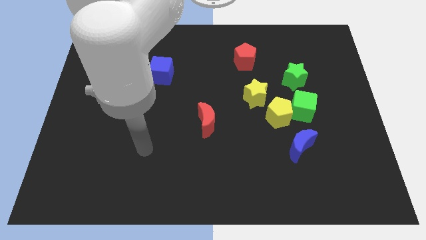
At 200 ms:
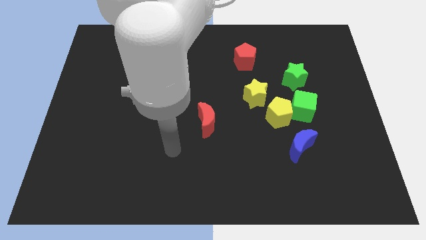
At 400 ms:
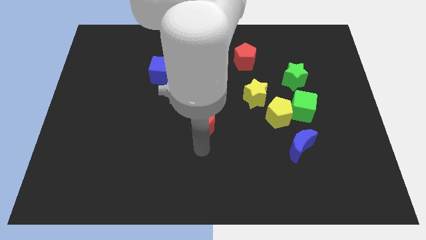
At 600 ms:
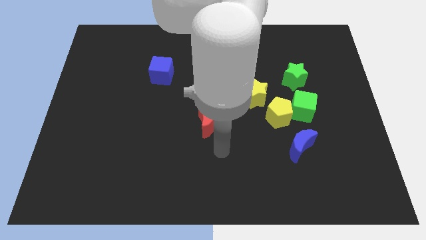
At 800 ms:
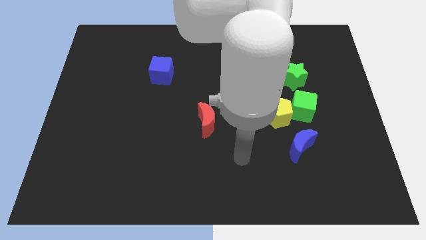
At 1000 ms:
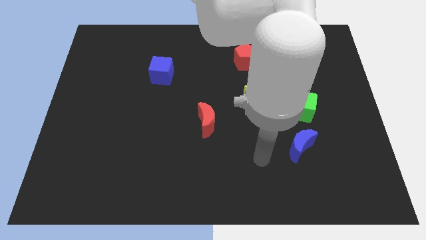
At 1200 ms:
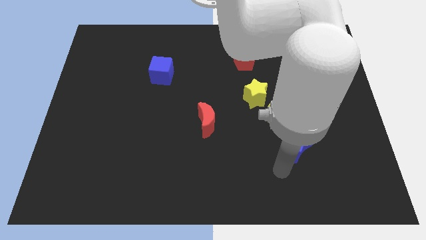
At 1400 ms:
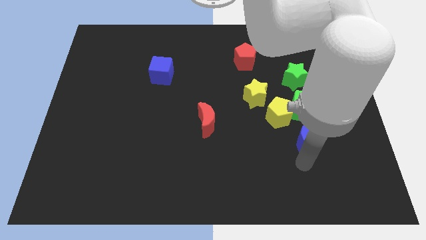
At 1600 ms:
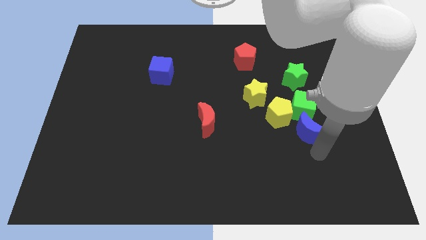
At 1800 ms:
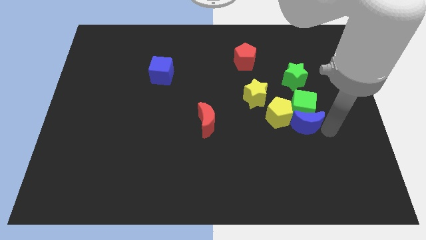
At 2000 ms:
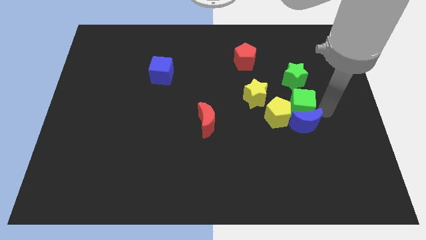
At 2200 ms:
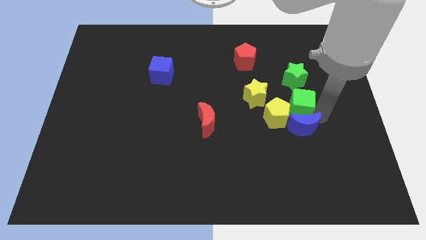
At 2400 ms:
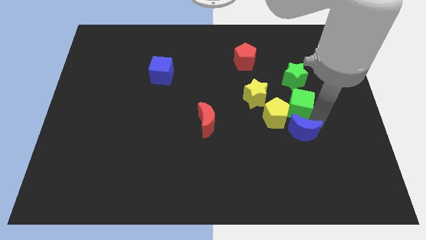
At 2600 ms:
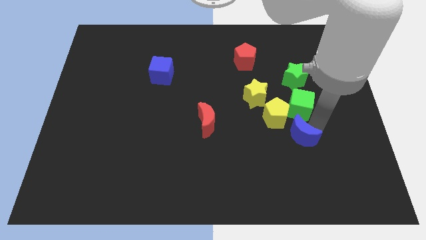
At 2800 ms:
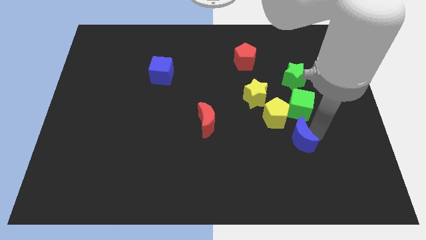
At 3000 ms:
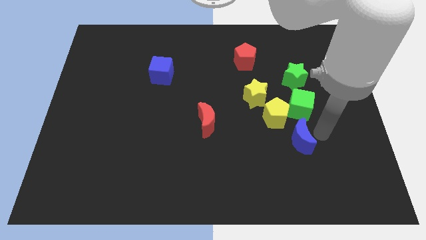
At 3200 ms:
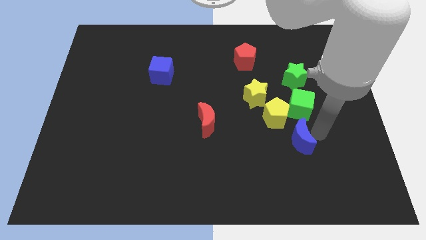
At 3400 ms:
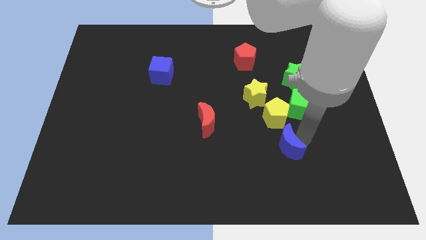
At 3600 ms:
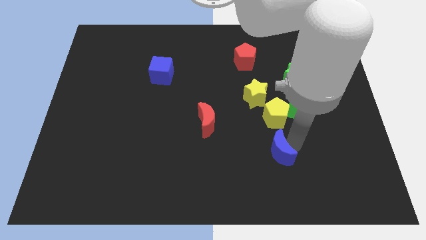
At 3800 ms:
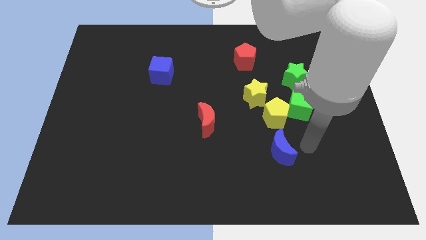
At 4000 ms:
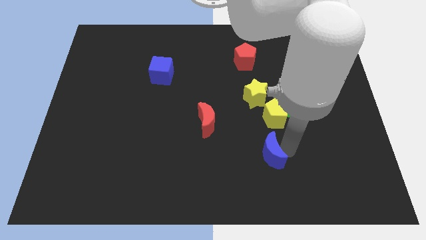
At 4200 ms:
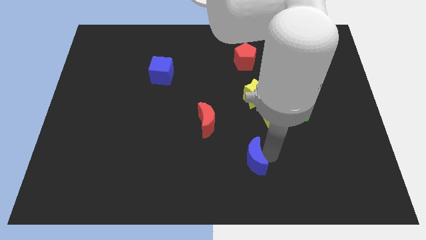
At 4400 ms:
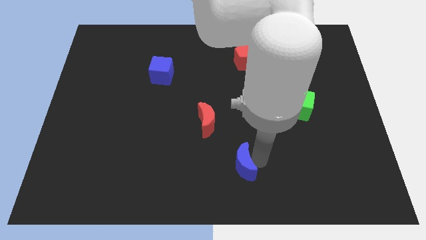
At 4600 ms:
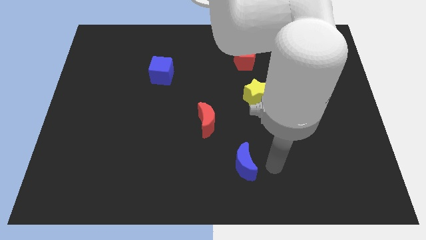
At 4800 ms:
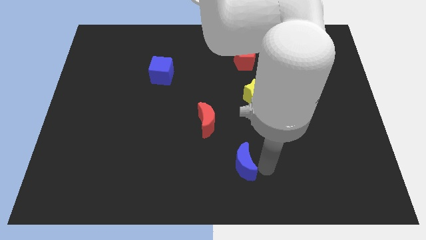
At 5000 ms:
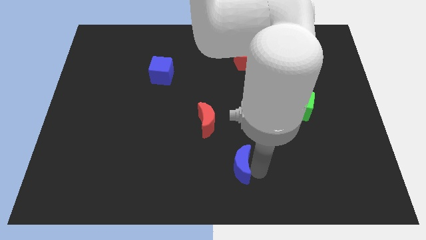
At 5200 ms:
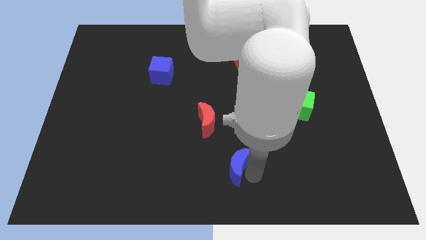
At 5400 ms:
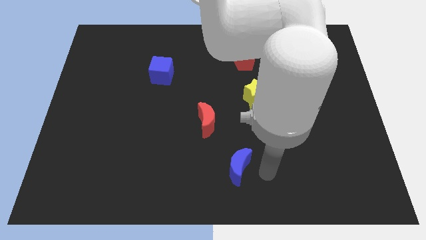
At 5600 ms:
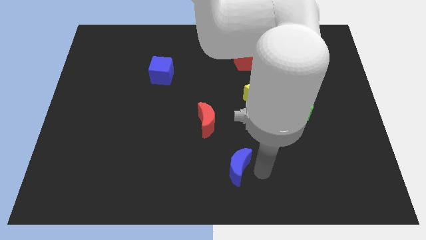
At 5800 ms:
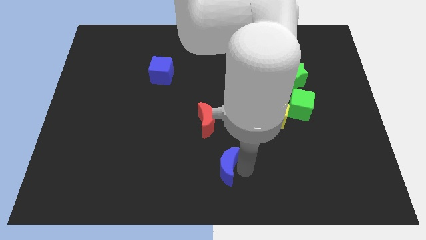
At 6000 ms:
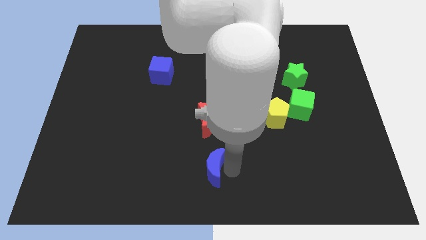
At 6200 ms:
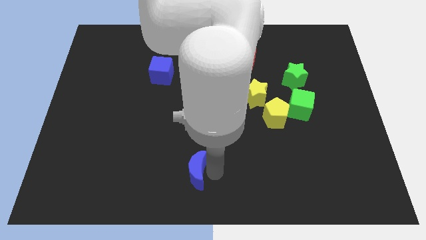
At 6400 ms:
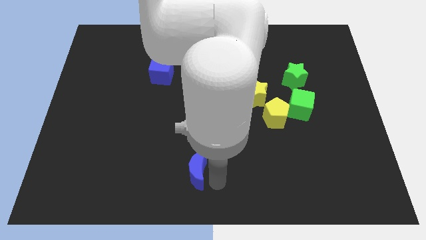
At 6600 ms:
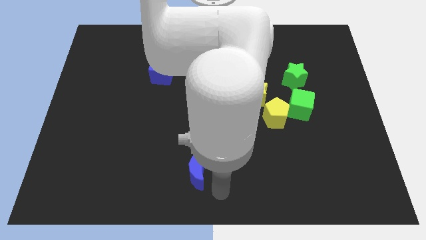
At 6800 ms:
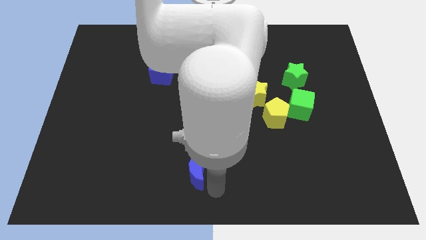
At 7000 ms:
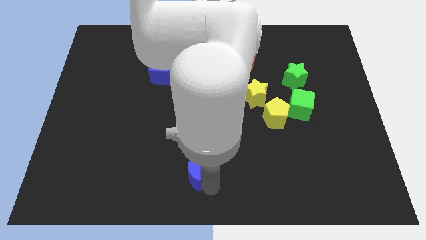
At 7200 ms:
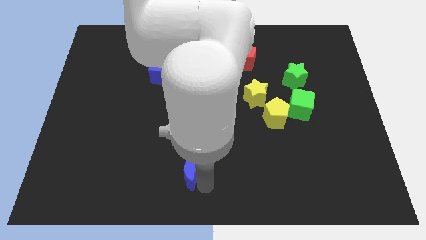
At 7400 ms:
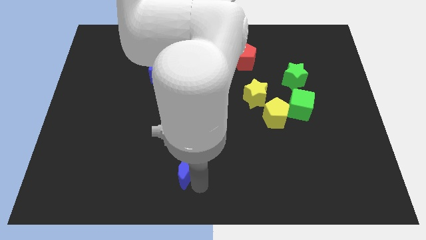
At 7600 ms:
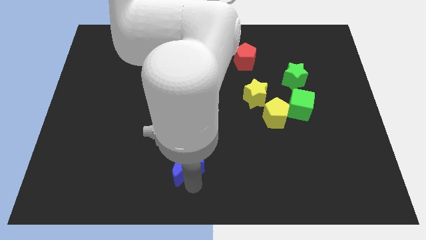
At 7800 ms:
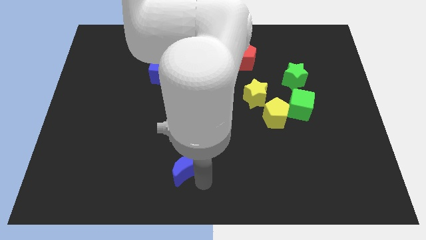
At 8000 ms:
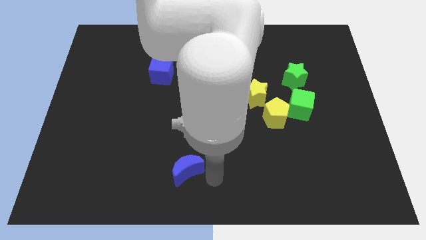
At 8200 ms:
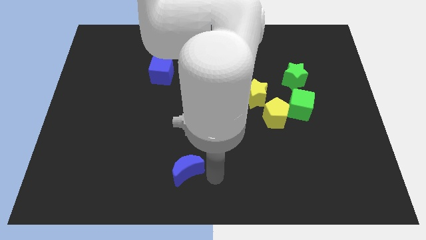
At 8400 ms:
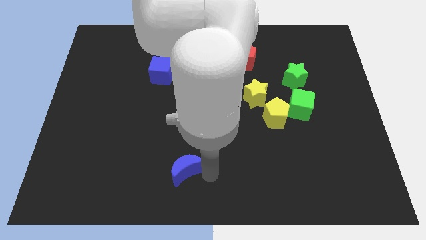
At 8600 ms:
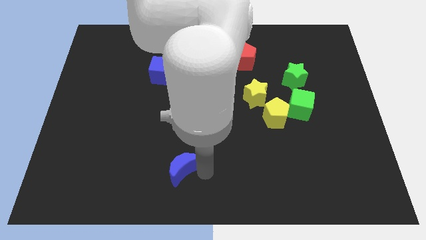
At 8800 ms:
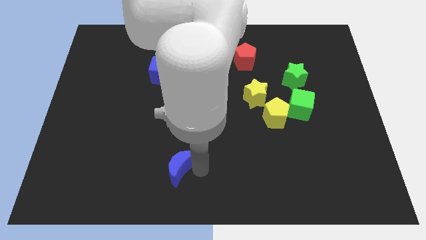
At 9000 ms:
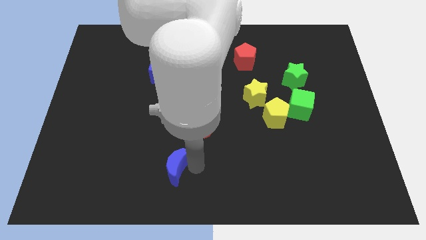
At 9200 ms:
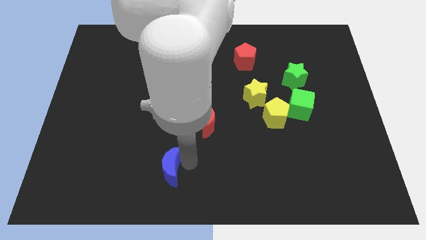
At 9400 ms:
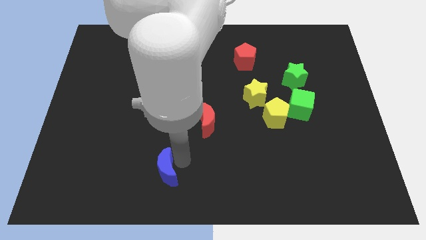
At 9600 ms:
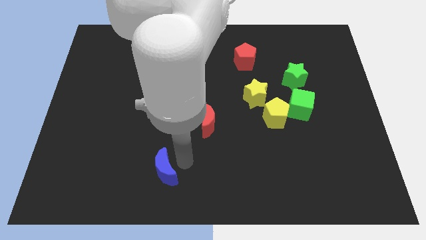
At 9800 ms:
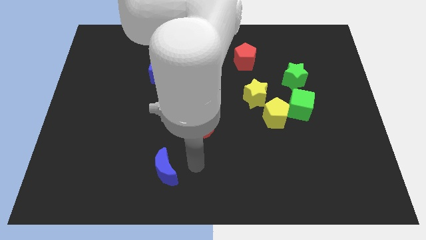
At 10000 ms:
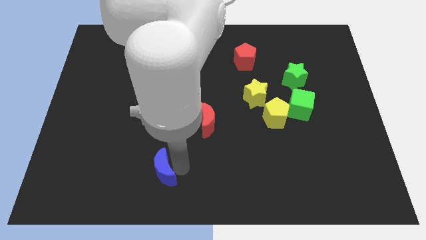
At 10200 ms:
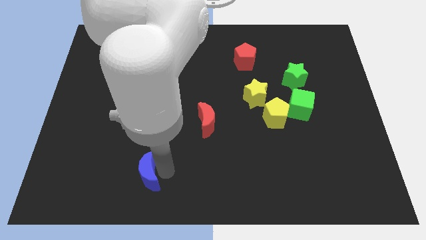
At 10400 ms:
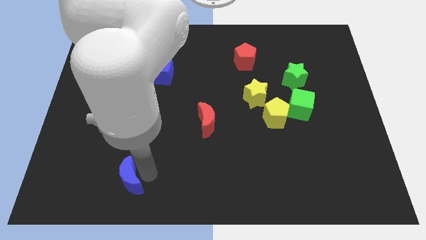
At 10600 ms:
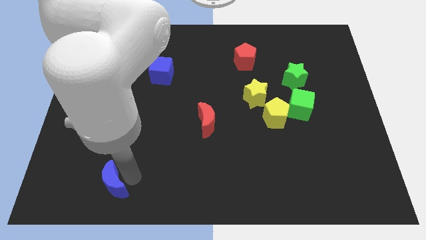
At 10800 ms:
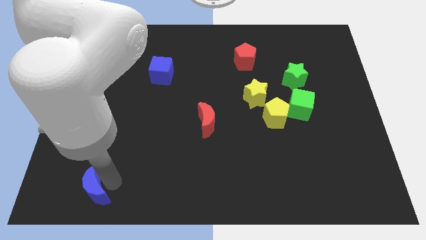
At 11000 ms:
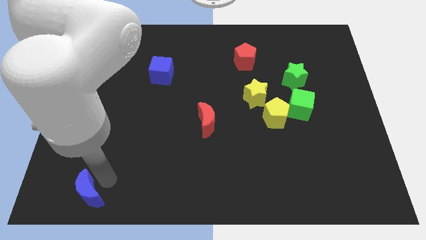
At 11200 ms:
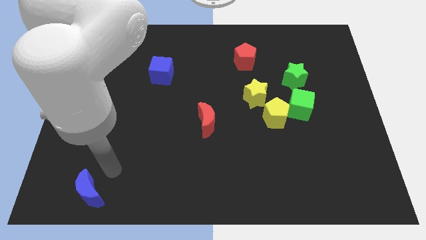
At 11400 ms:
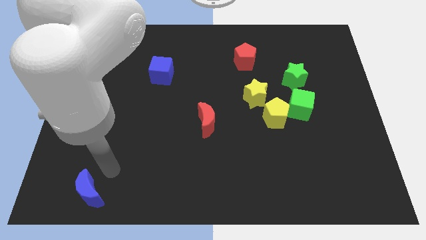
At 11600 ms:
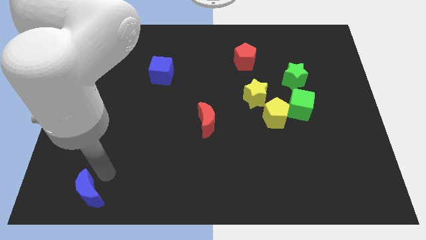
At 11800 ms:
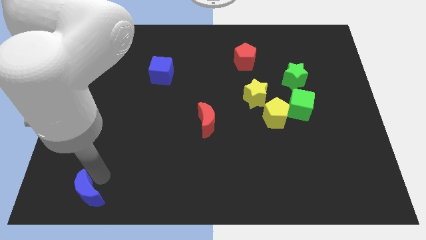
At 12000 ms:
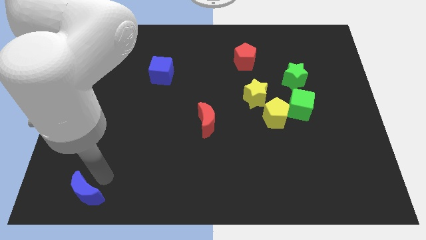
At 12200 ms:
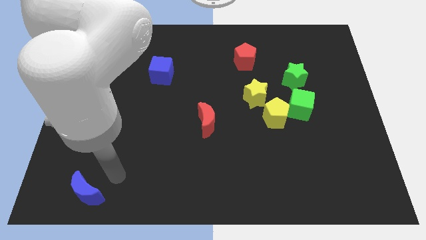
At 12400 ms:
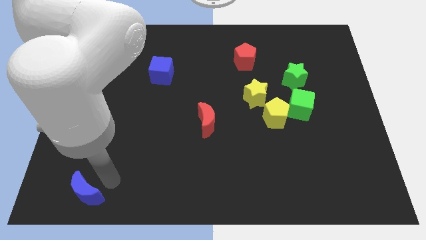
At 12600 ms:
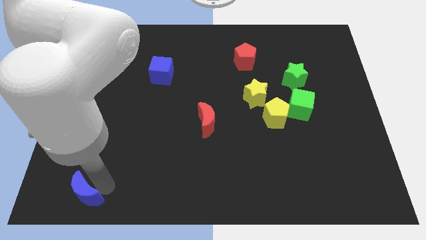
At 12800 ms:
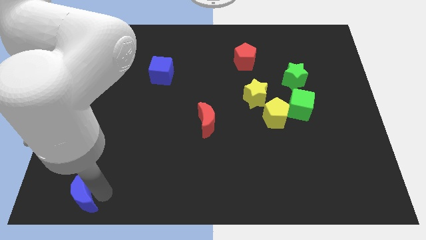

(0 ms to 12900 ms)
put the blue moon to the bottom left
